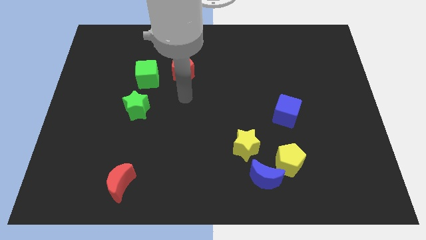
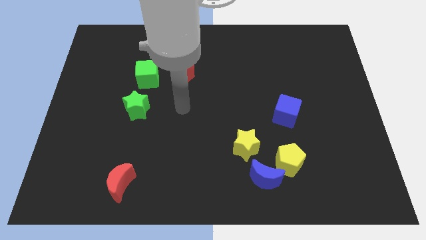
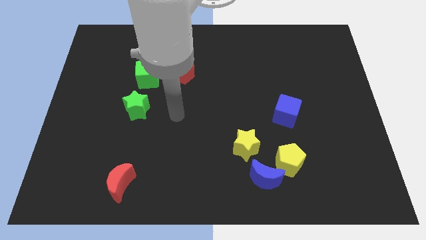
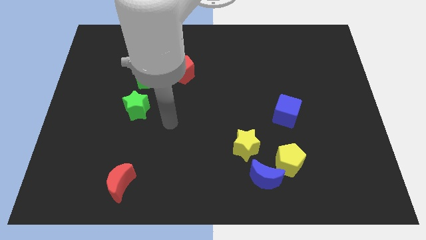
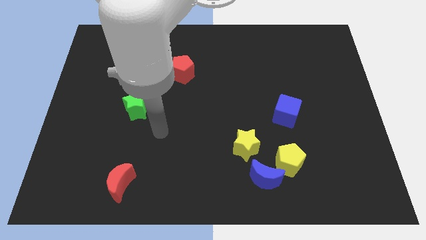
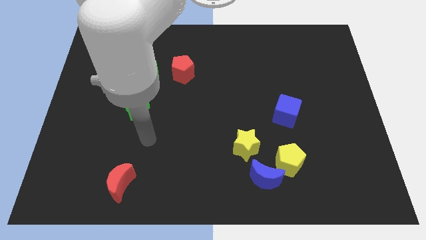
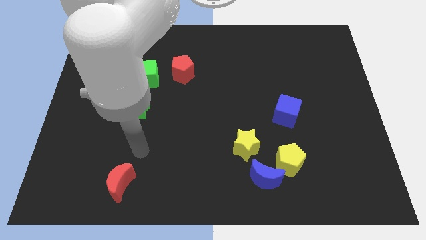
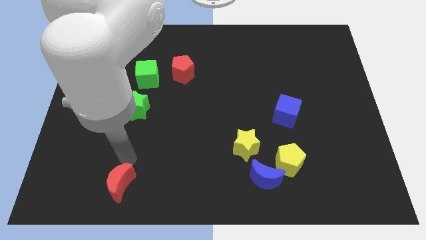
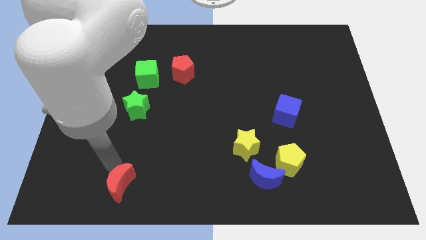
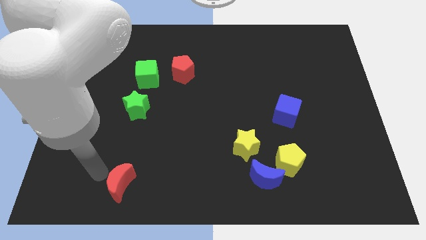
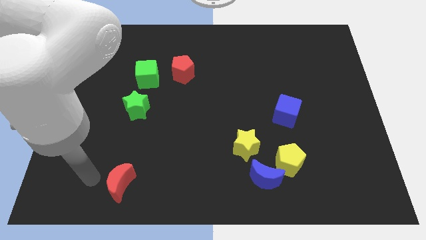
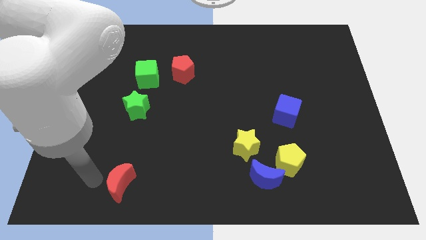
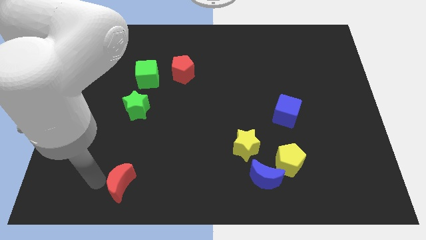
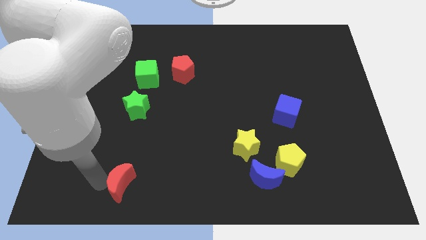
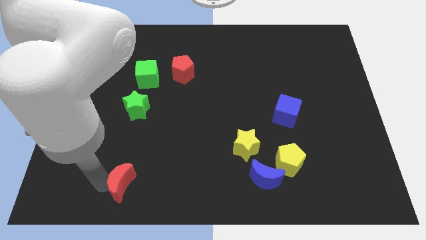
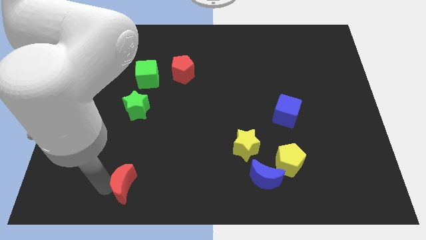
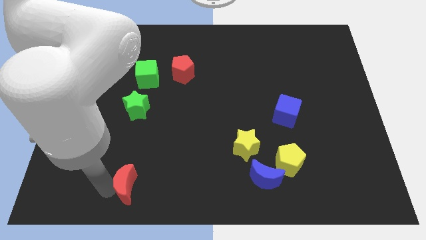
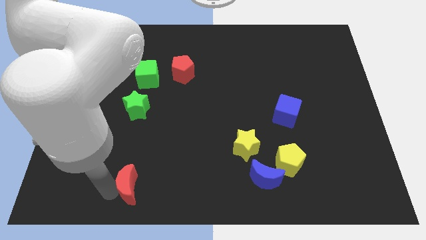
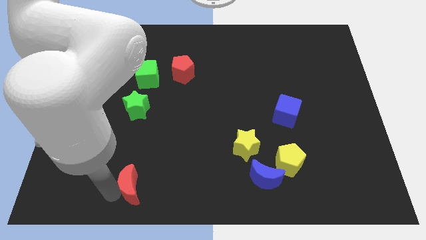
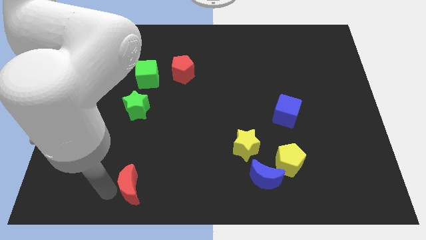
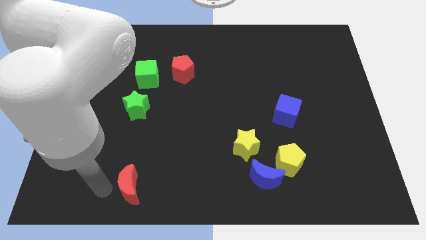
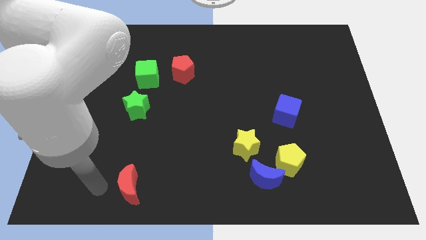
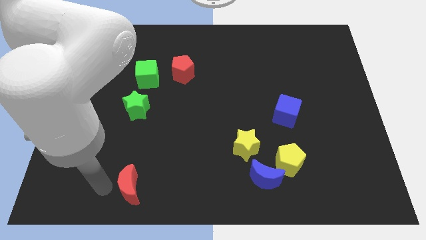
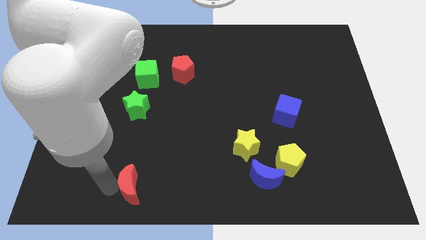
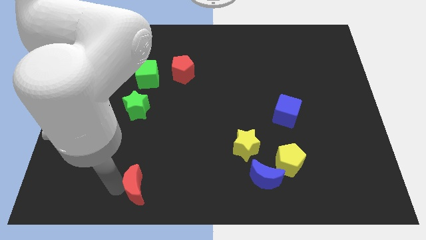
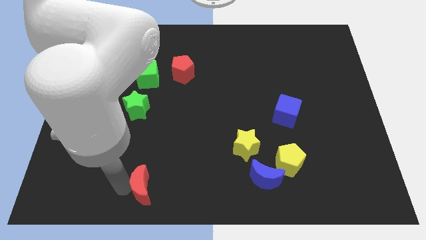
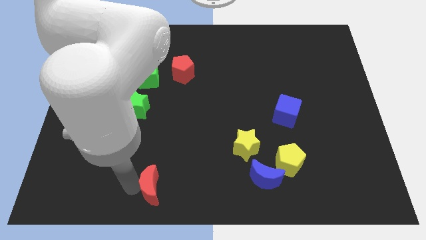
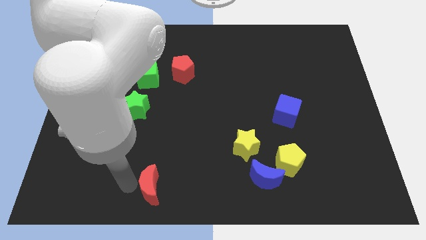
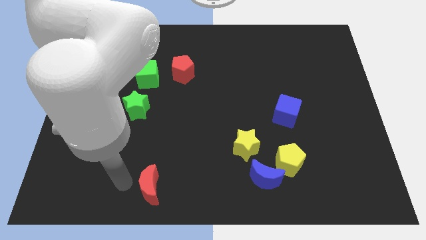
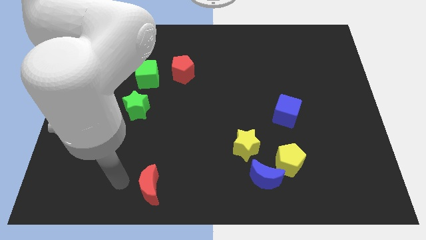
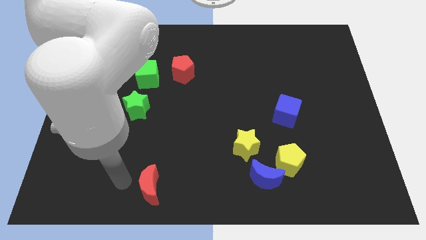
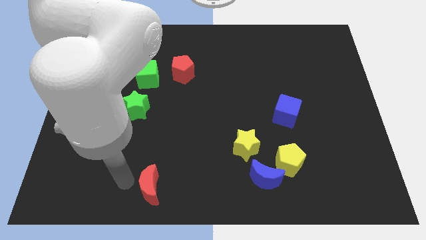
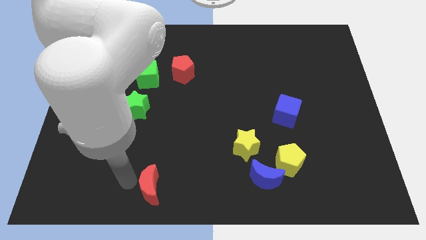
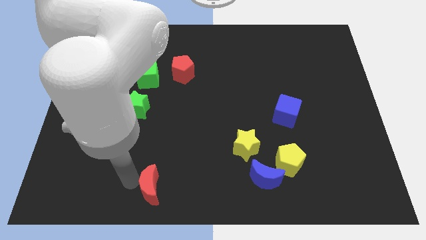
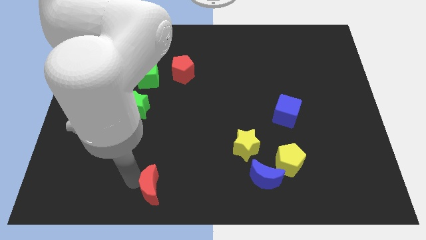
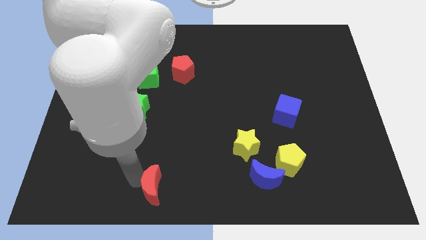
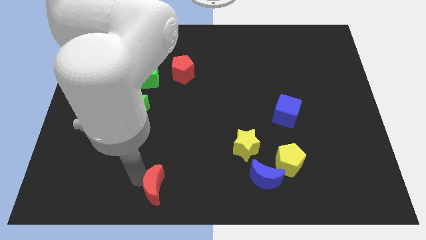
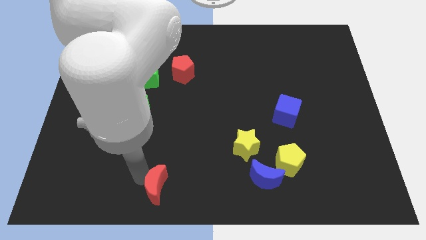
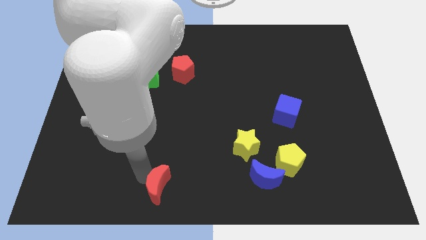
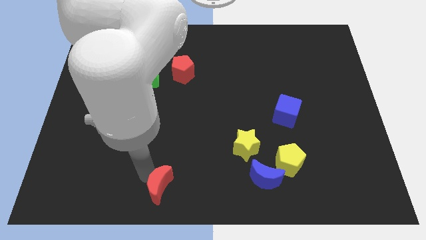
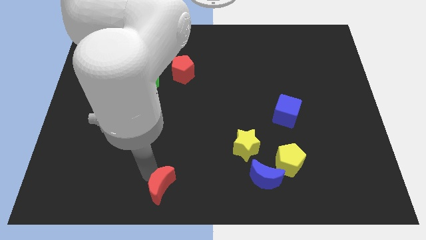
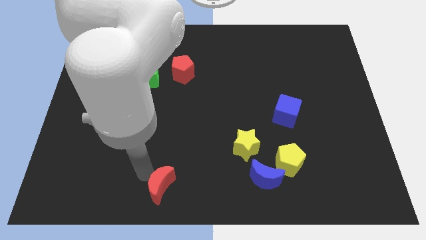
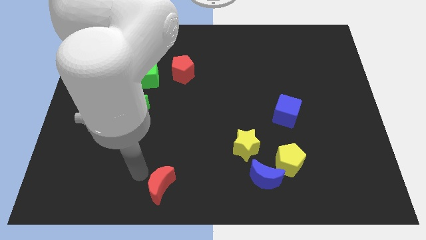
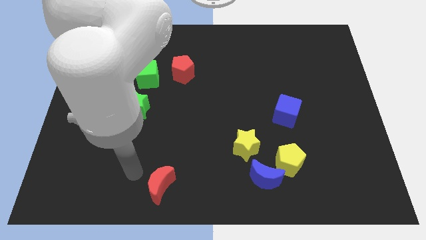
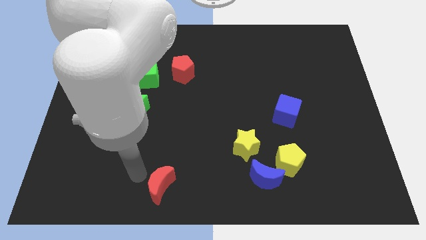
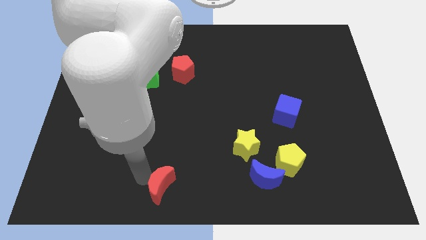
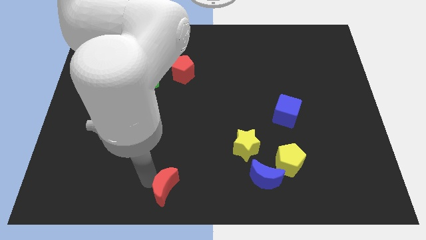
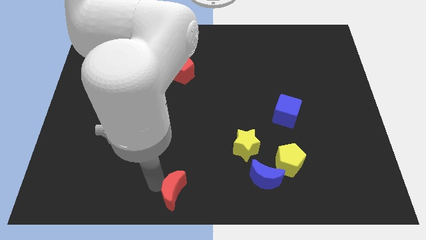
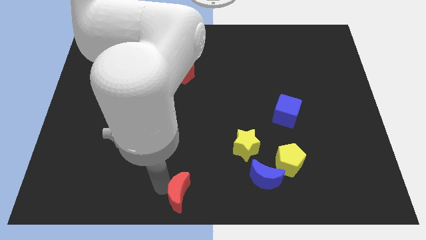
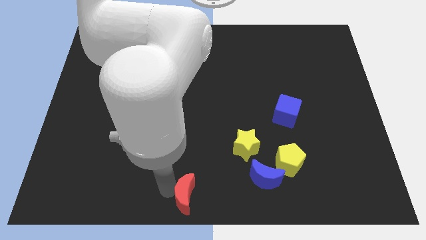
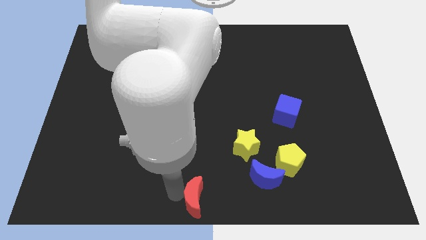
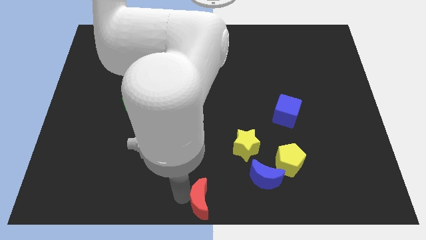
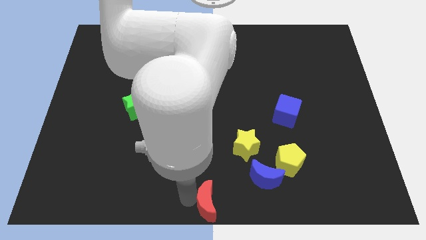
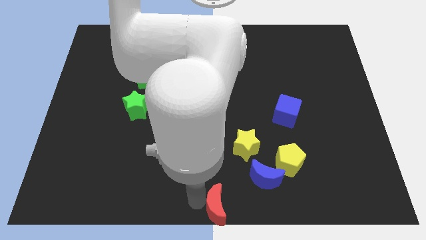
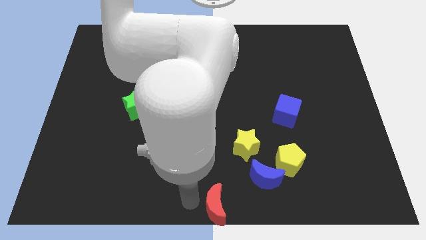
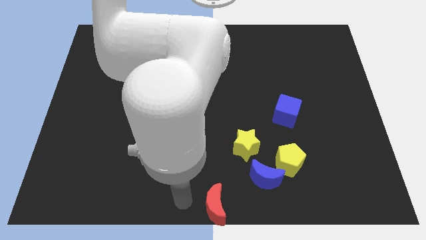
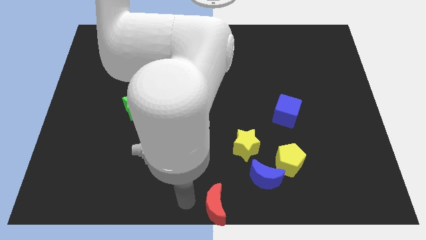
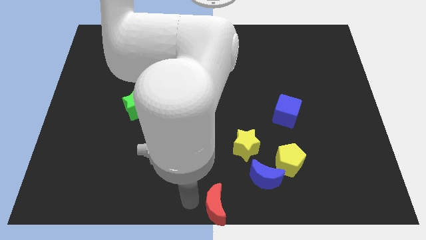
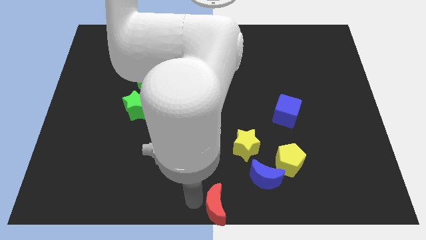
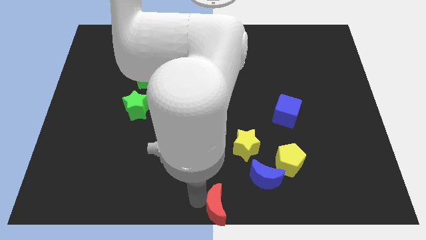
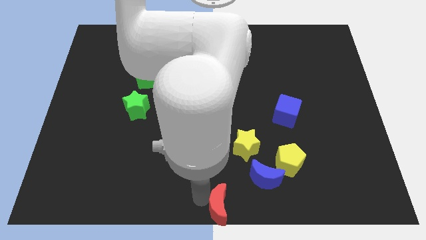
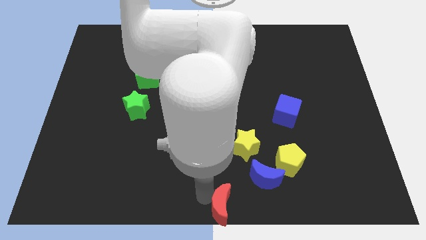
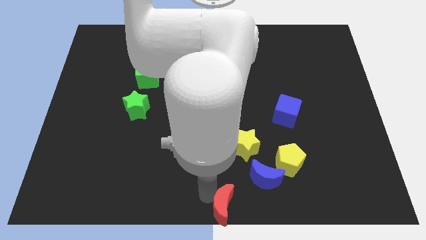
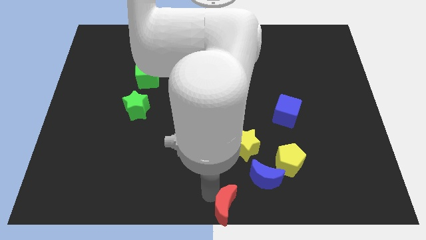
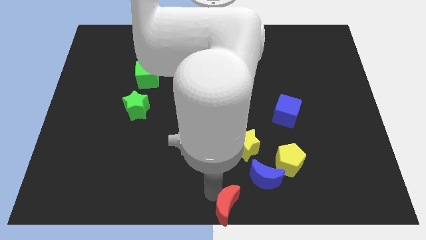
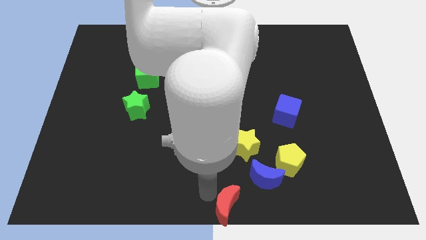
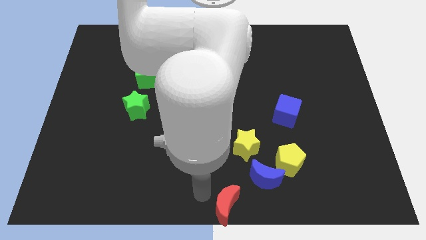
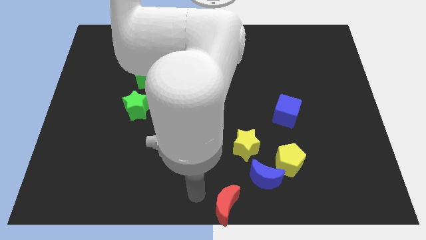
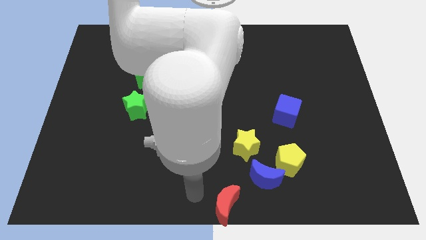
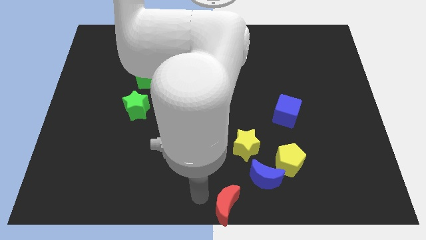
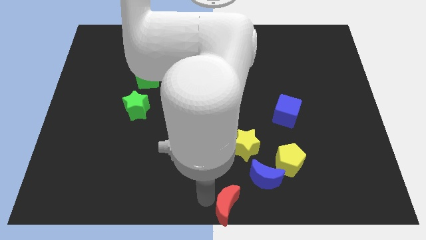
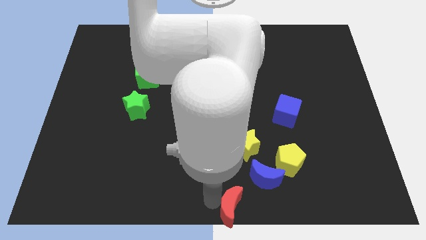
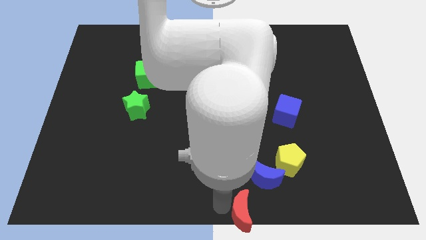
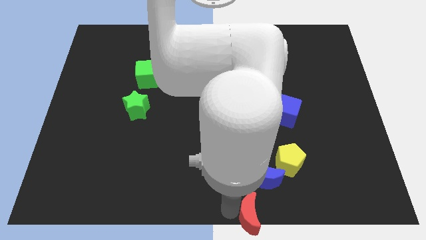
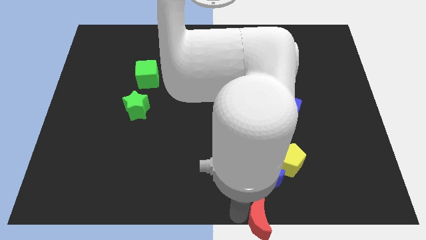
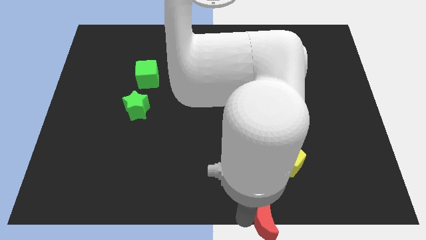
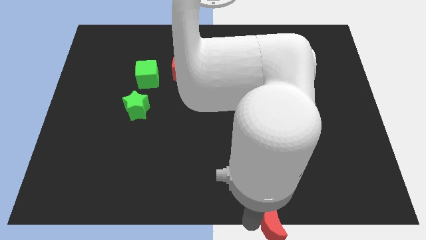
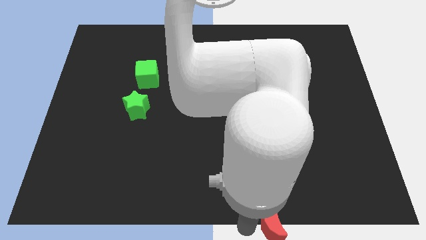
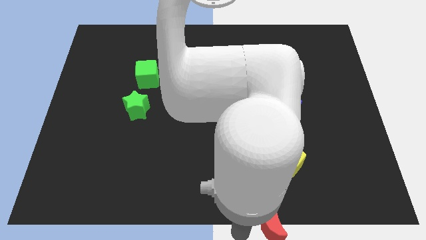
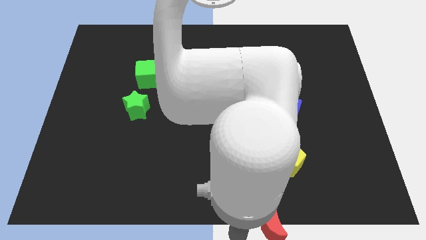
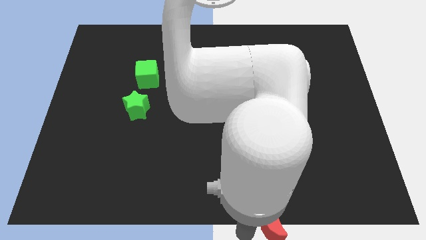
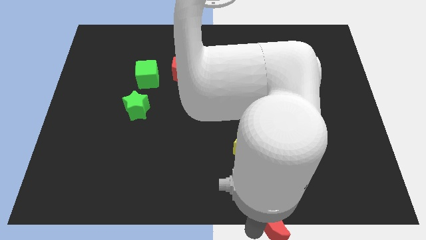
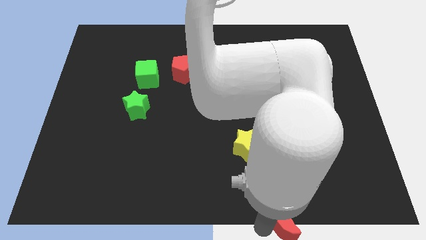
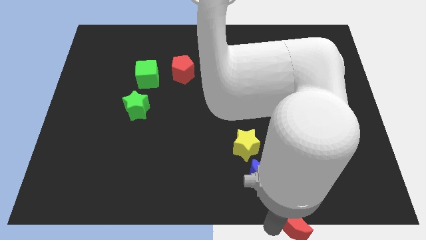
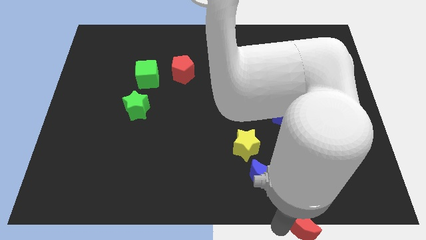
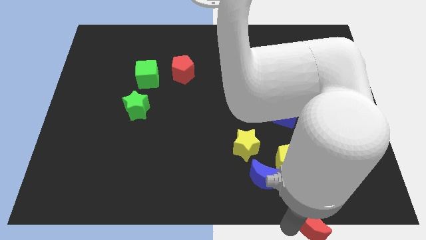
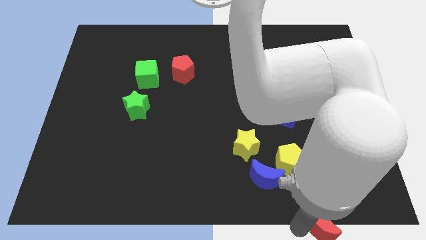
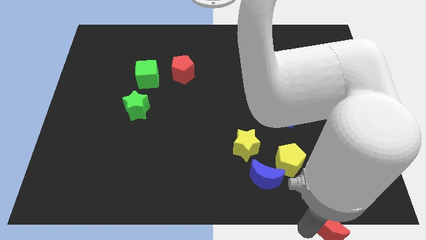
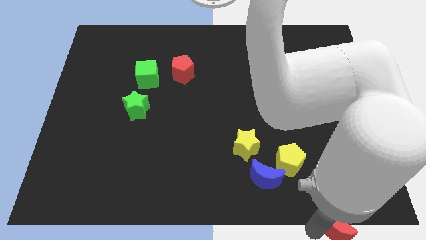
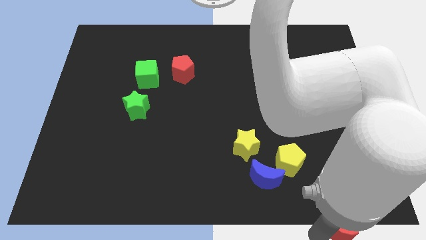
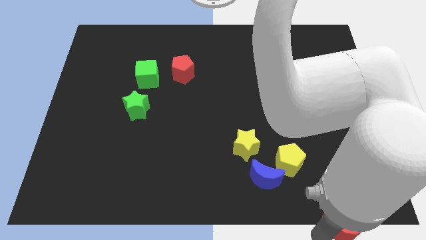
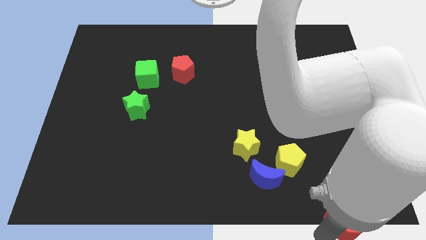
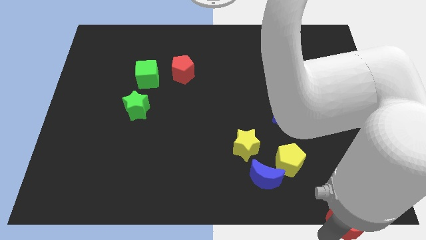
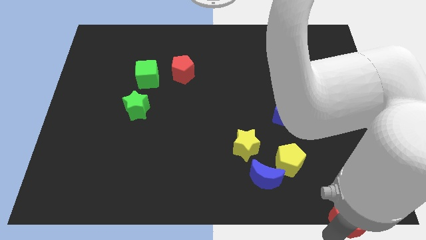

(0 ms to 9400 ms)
slide the red moon to the lower right corner
